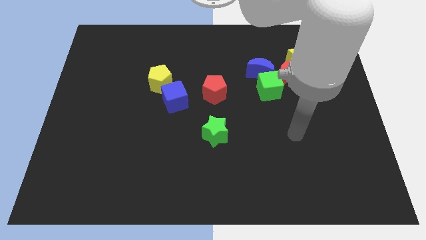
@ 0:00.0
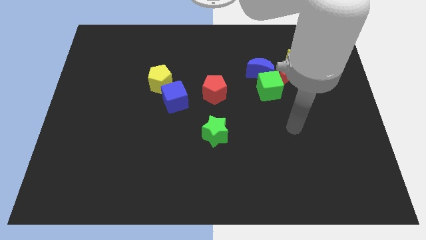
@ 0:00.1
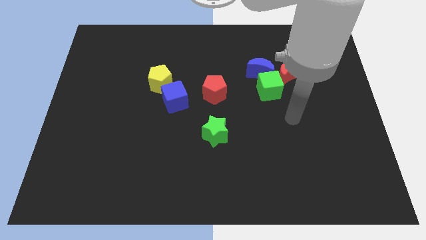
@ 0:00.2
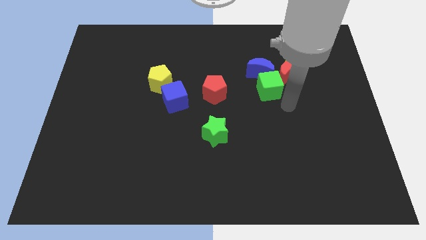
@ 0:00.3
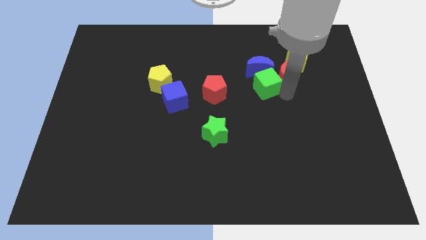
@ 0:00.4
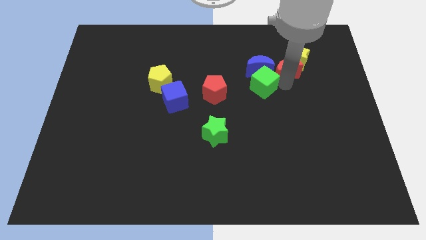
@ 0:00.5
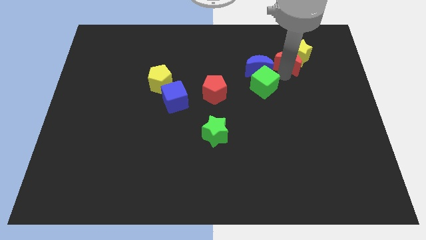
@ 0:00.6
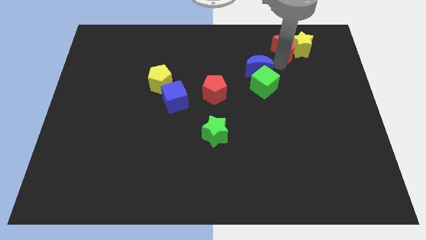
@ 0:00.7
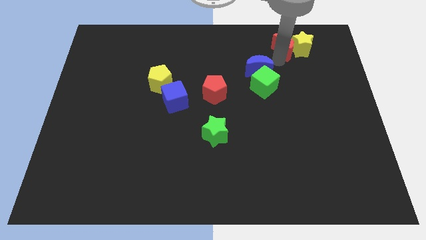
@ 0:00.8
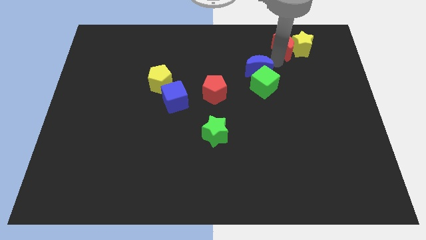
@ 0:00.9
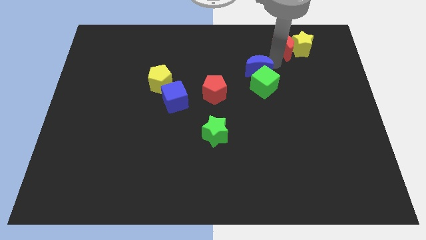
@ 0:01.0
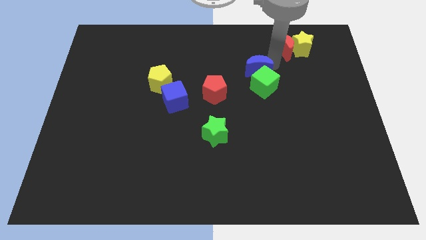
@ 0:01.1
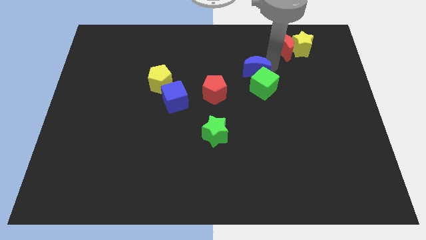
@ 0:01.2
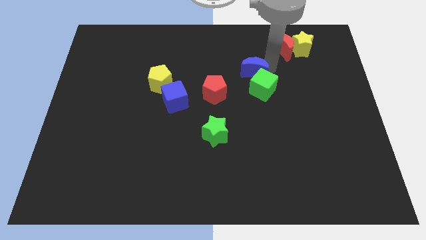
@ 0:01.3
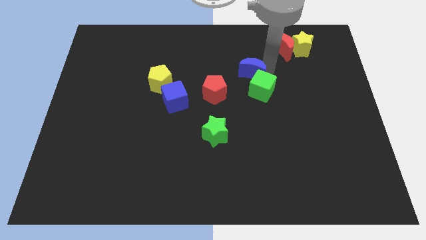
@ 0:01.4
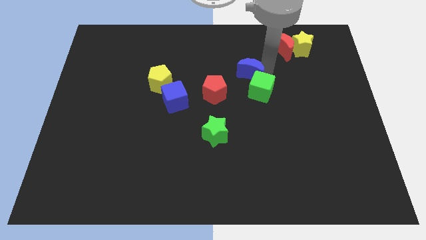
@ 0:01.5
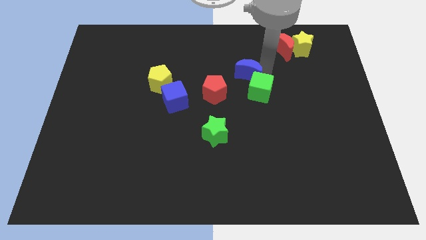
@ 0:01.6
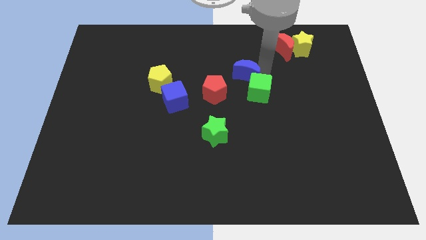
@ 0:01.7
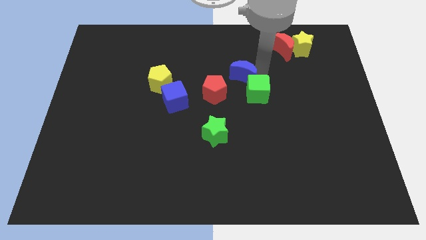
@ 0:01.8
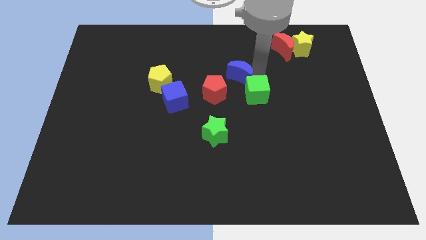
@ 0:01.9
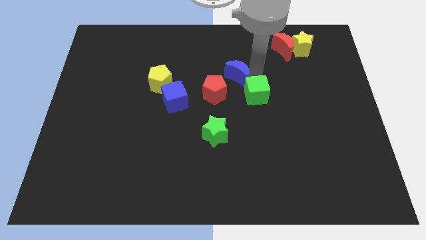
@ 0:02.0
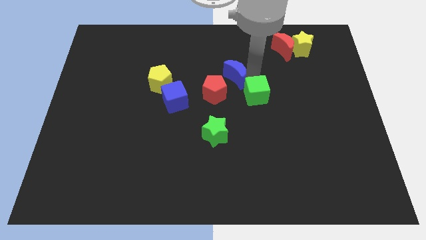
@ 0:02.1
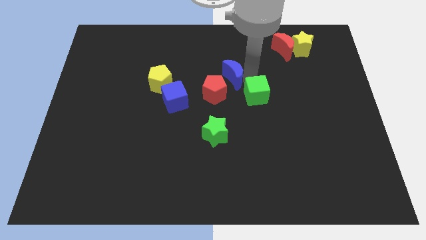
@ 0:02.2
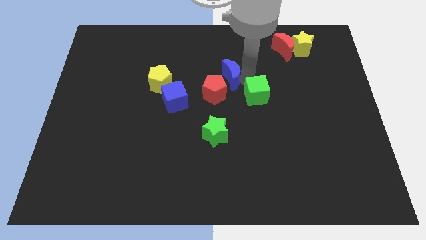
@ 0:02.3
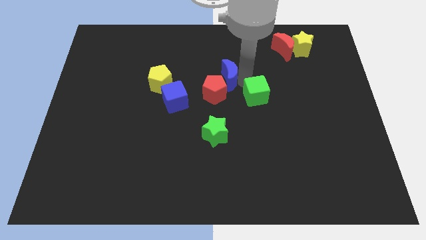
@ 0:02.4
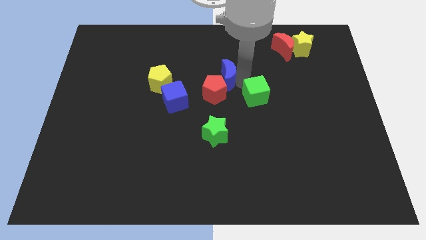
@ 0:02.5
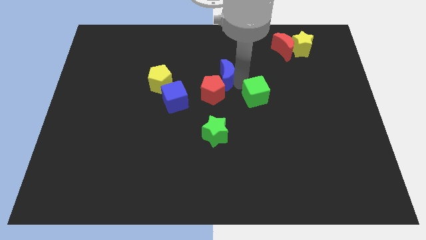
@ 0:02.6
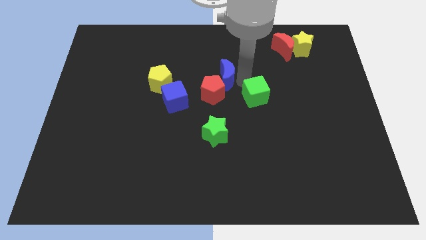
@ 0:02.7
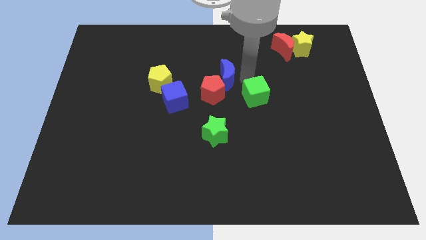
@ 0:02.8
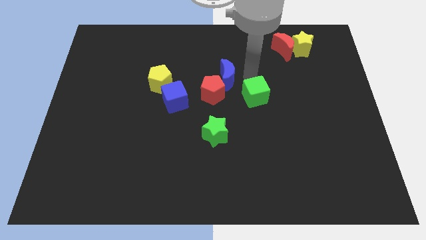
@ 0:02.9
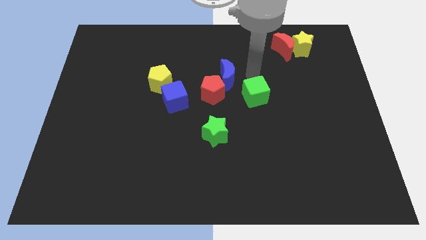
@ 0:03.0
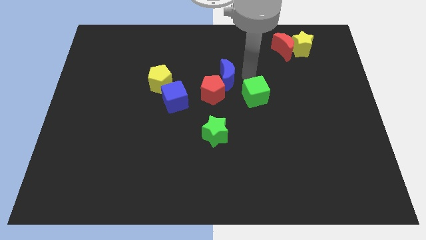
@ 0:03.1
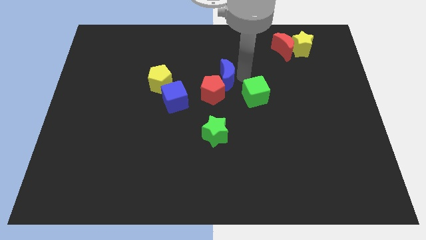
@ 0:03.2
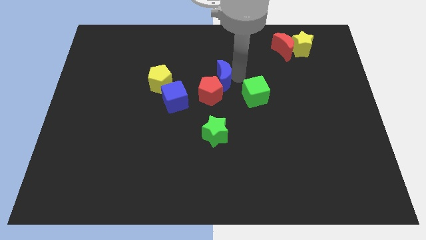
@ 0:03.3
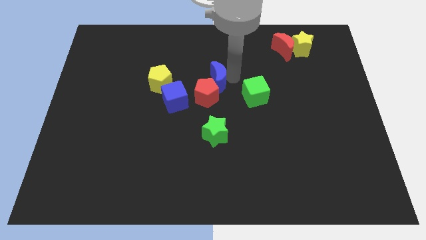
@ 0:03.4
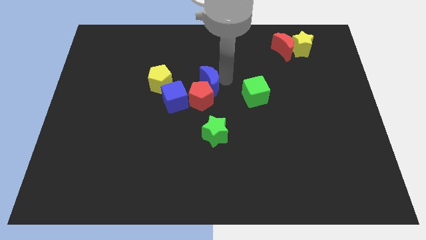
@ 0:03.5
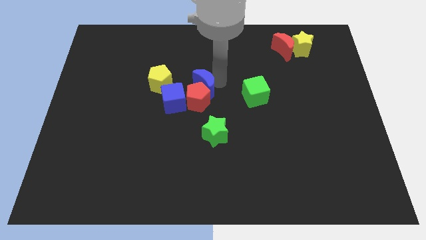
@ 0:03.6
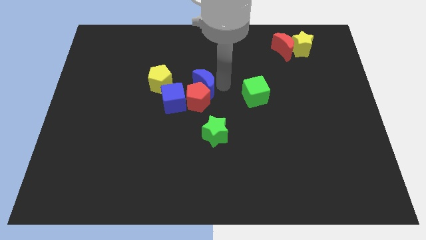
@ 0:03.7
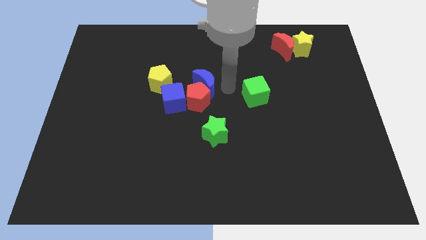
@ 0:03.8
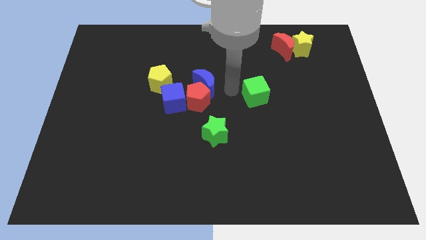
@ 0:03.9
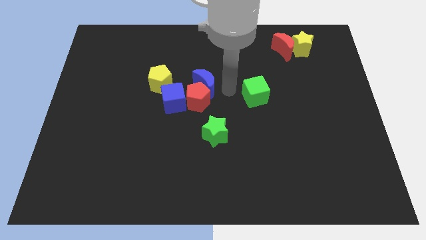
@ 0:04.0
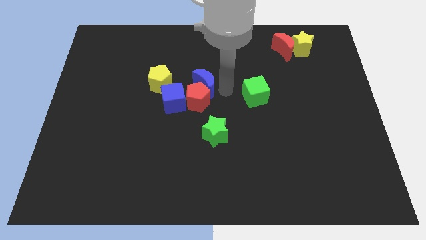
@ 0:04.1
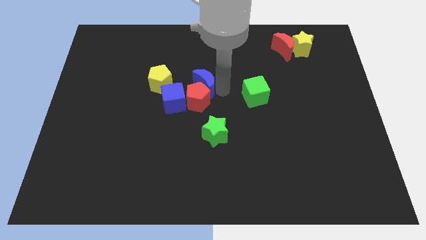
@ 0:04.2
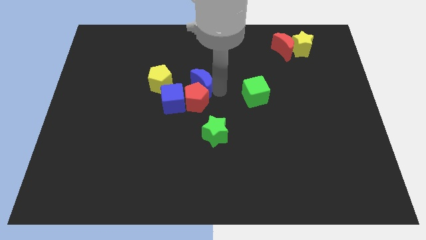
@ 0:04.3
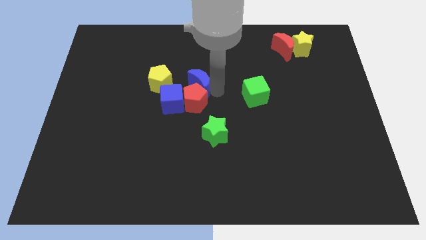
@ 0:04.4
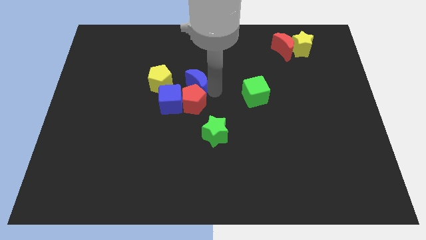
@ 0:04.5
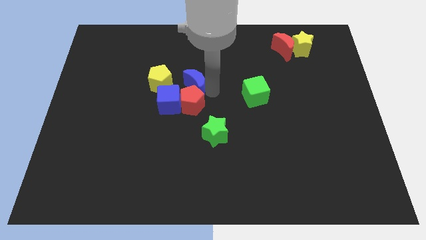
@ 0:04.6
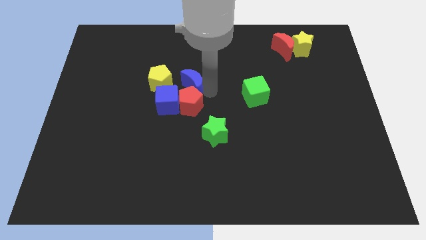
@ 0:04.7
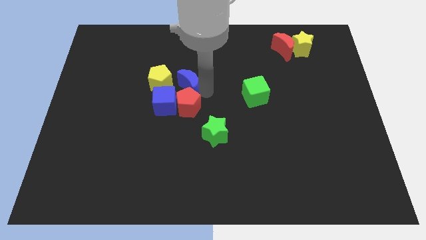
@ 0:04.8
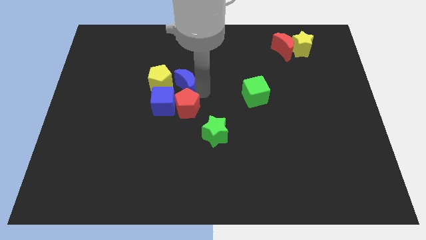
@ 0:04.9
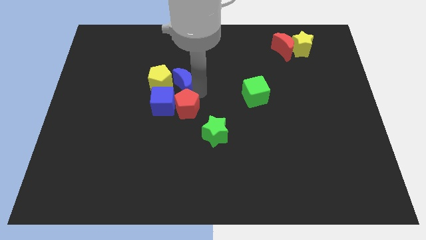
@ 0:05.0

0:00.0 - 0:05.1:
push the blue moon to the yellow pentagon

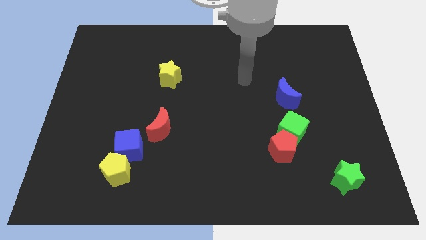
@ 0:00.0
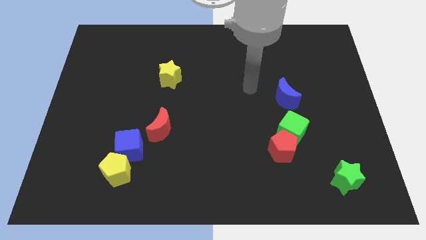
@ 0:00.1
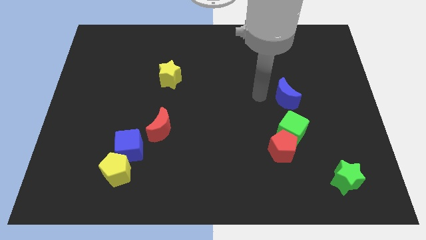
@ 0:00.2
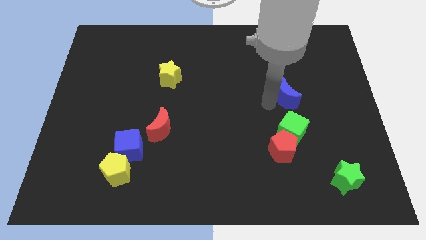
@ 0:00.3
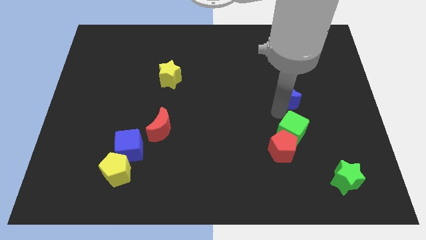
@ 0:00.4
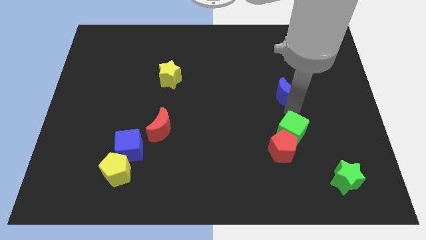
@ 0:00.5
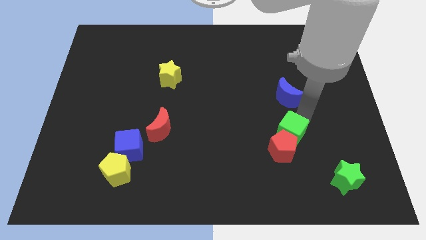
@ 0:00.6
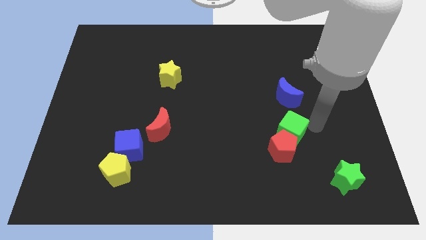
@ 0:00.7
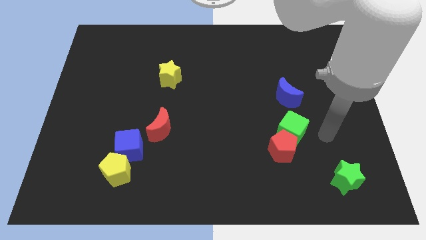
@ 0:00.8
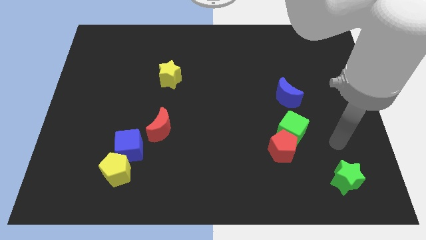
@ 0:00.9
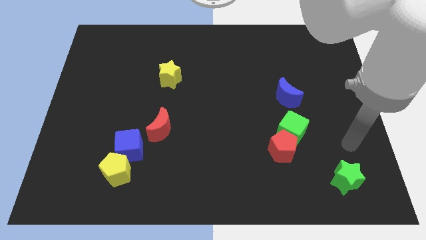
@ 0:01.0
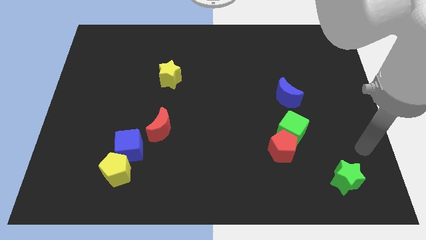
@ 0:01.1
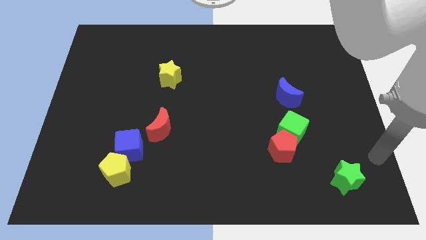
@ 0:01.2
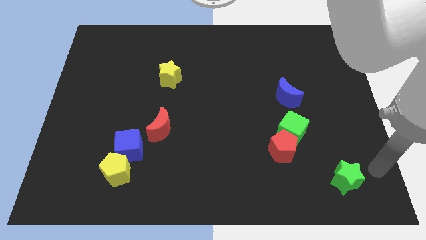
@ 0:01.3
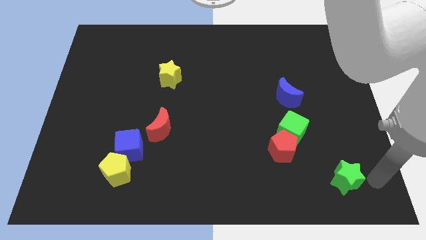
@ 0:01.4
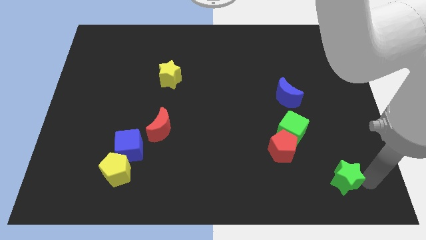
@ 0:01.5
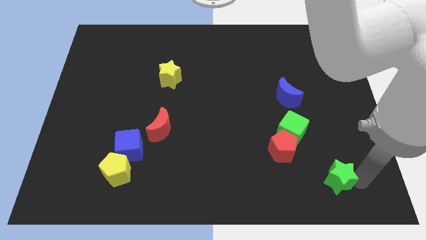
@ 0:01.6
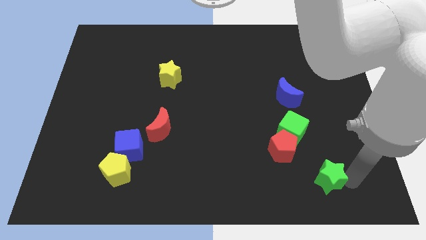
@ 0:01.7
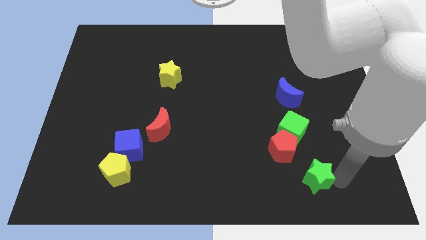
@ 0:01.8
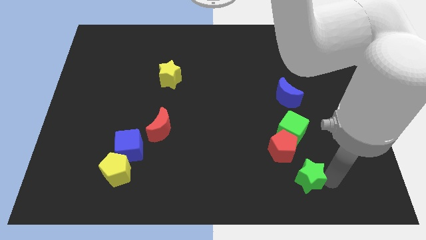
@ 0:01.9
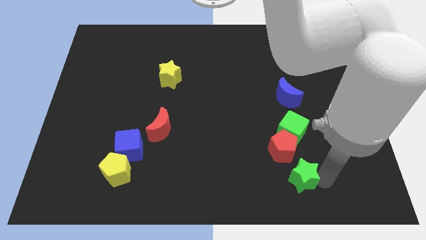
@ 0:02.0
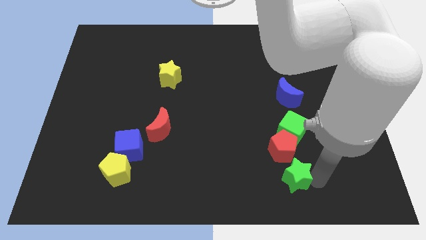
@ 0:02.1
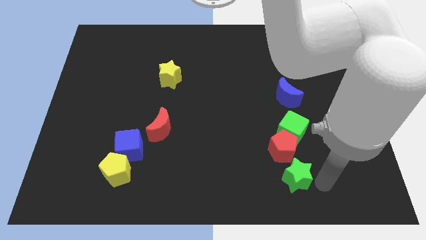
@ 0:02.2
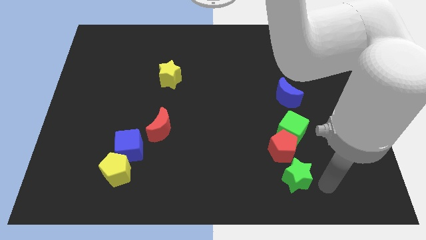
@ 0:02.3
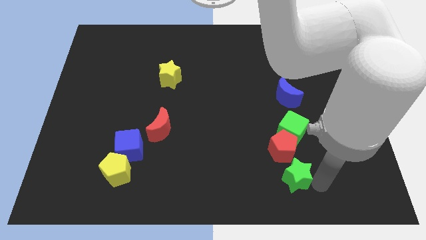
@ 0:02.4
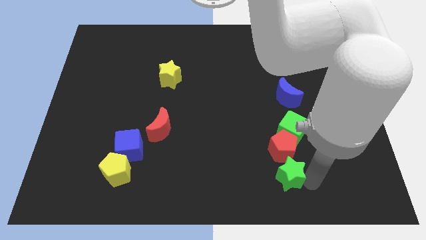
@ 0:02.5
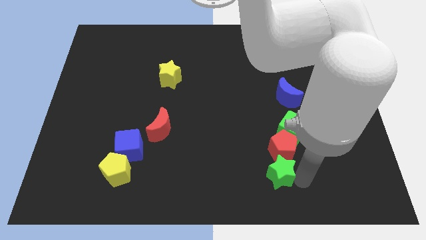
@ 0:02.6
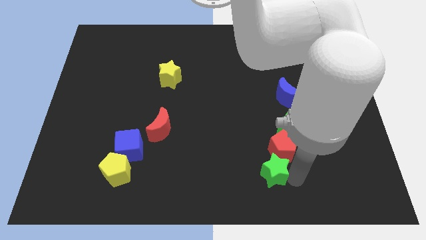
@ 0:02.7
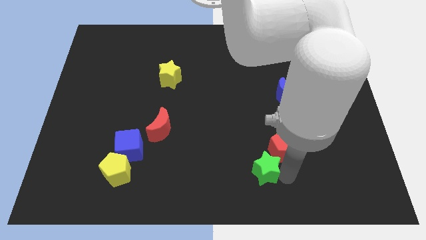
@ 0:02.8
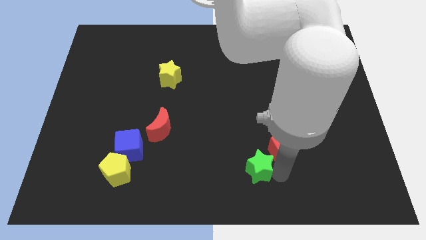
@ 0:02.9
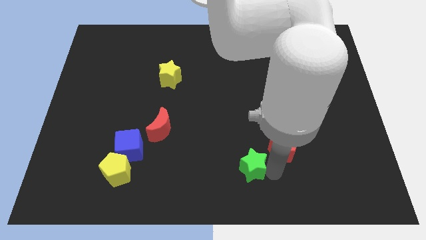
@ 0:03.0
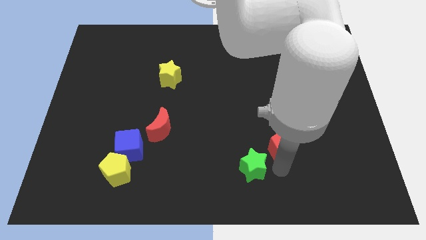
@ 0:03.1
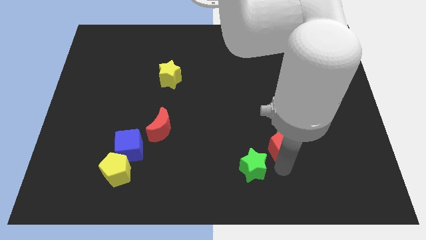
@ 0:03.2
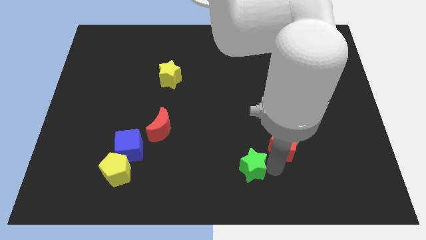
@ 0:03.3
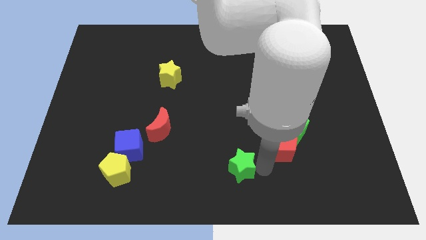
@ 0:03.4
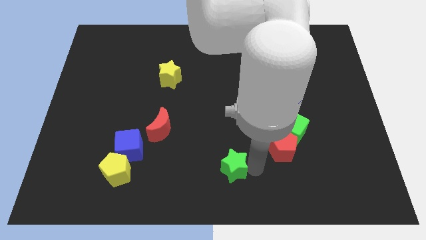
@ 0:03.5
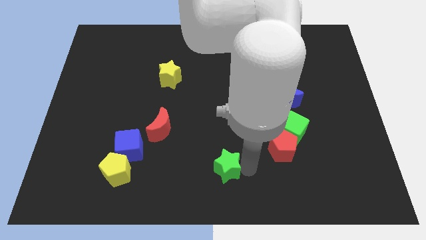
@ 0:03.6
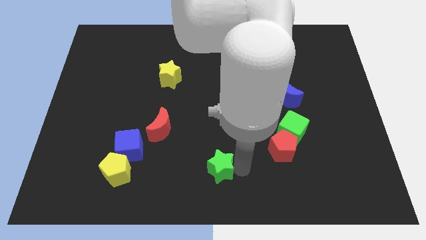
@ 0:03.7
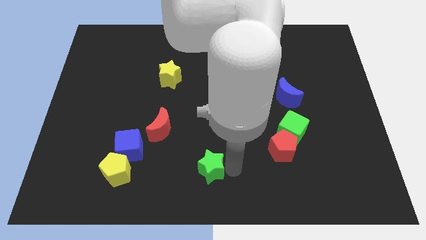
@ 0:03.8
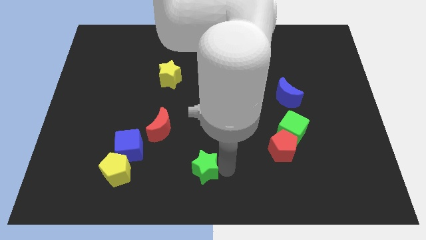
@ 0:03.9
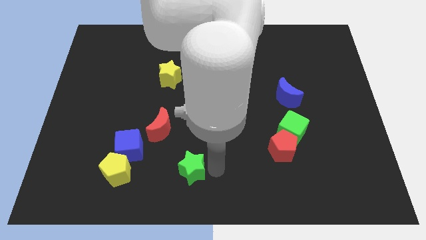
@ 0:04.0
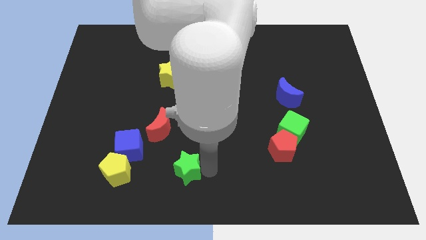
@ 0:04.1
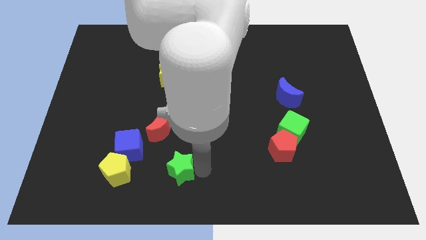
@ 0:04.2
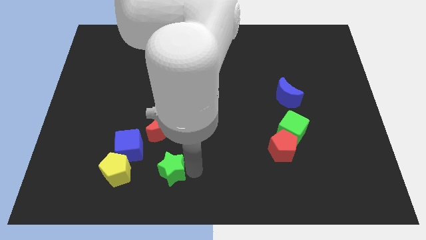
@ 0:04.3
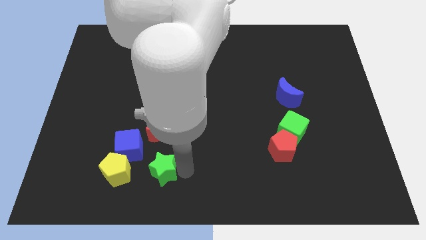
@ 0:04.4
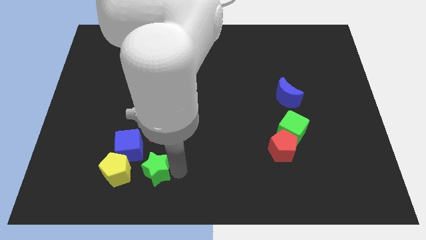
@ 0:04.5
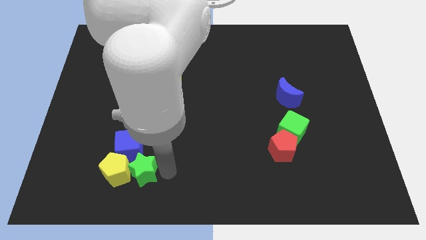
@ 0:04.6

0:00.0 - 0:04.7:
push the green star to the yellow pentagon
